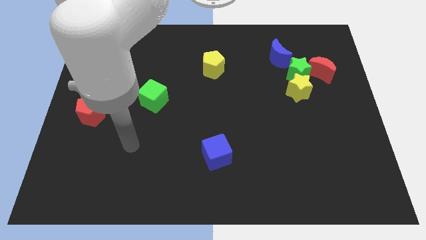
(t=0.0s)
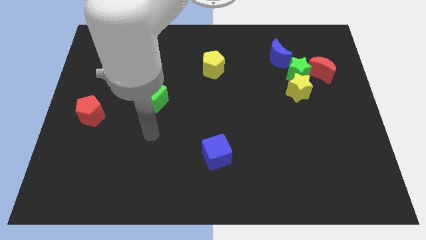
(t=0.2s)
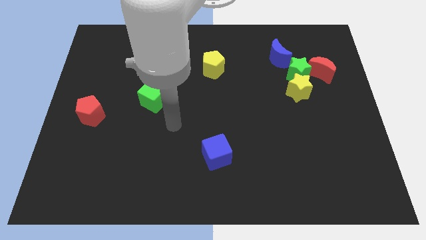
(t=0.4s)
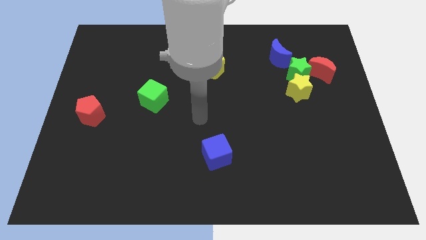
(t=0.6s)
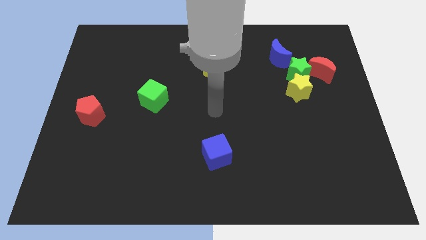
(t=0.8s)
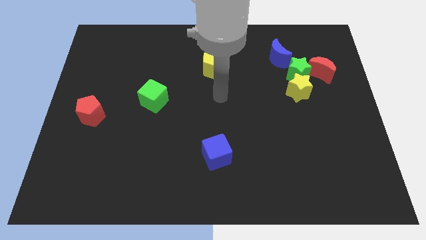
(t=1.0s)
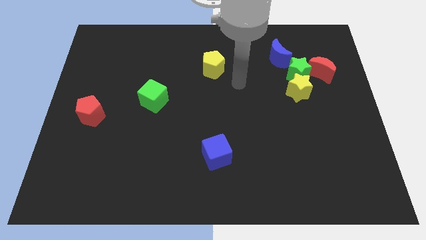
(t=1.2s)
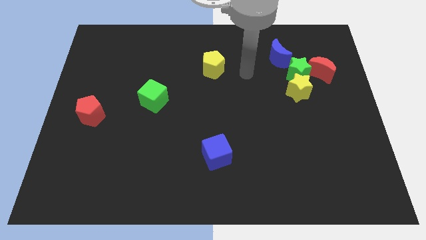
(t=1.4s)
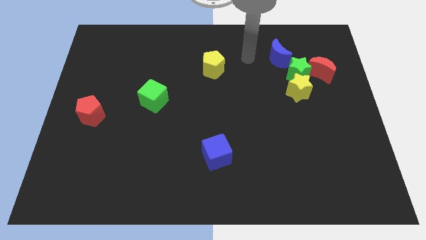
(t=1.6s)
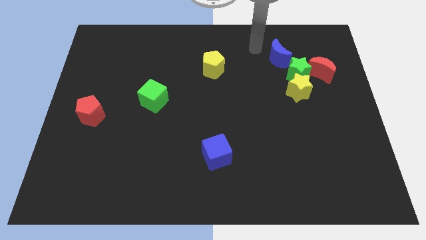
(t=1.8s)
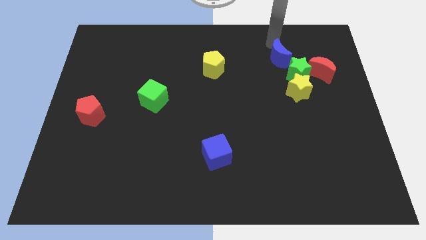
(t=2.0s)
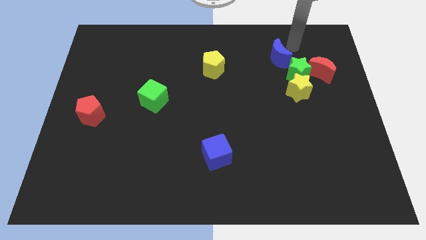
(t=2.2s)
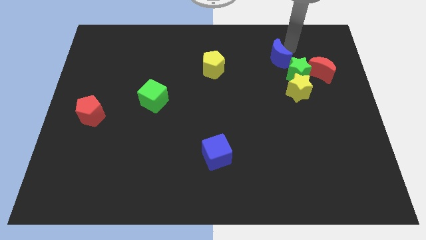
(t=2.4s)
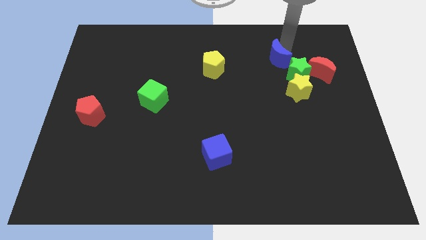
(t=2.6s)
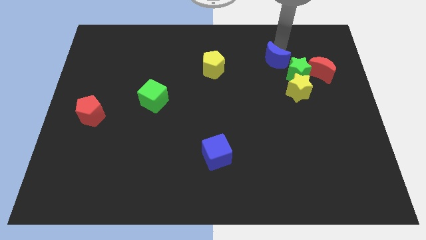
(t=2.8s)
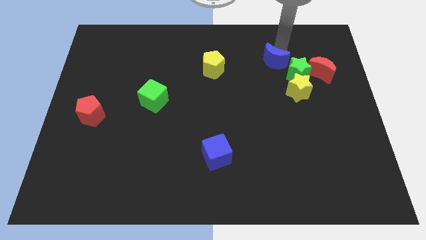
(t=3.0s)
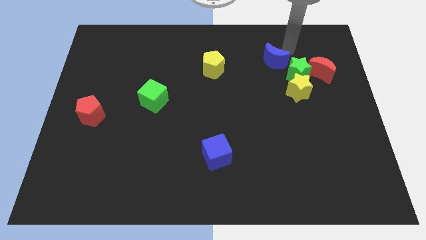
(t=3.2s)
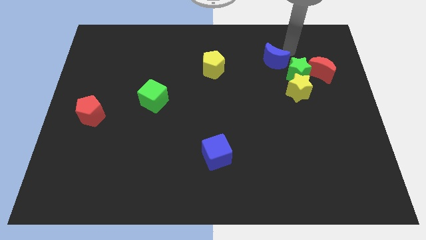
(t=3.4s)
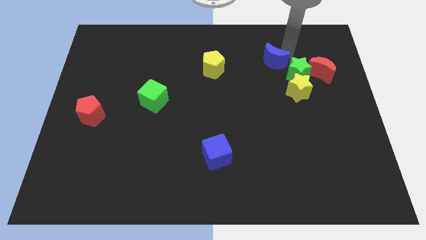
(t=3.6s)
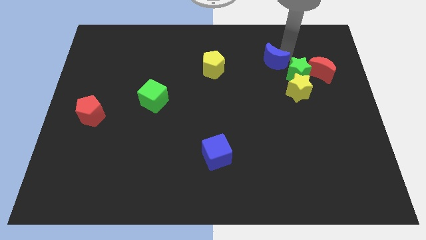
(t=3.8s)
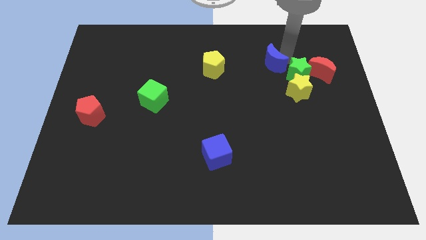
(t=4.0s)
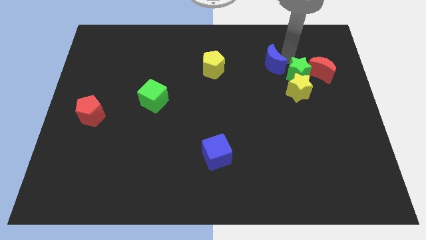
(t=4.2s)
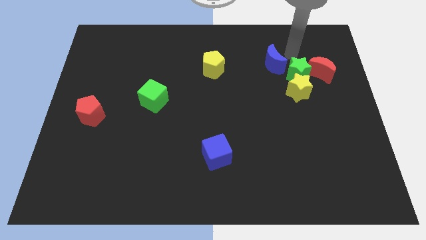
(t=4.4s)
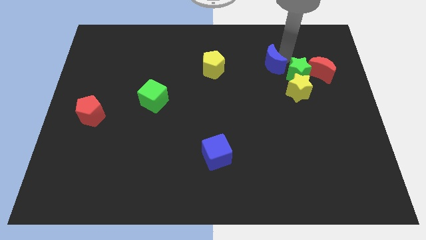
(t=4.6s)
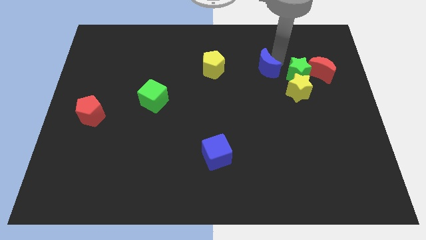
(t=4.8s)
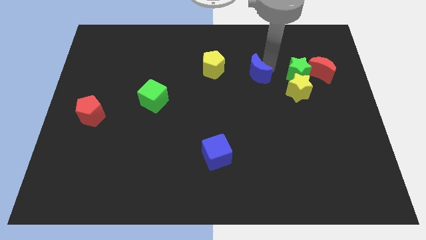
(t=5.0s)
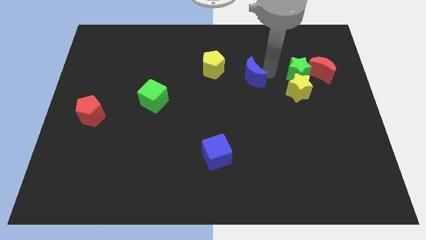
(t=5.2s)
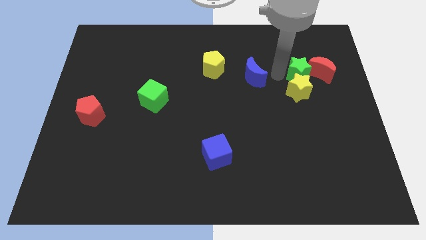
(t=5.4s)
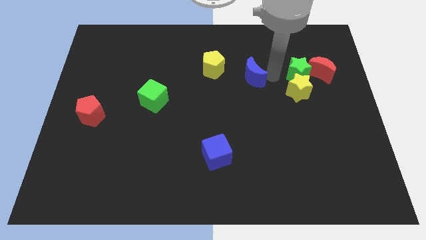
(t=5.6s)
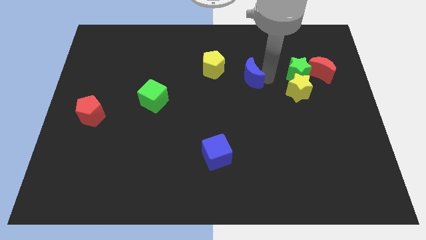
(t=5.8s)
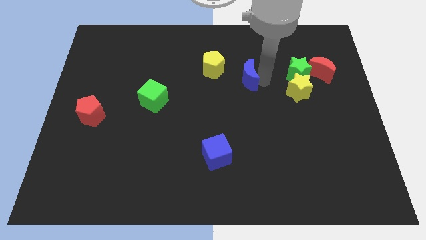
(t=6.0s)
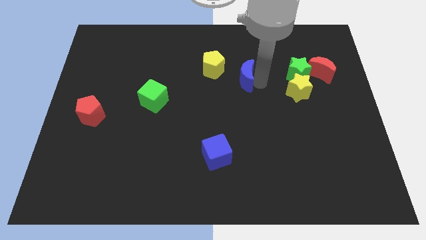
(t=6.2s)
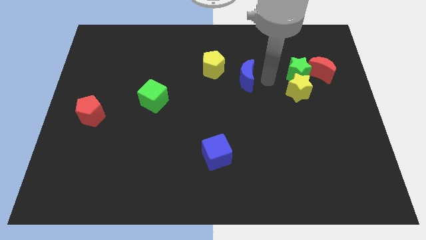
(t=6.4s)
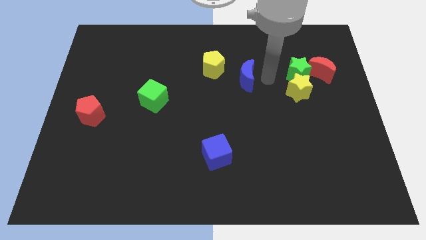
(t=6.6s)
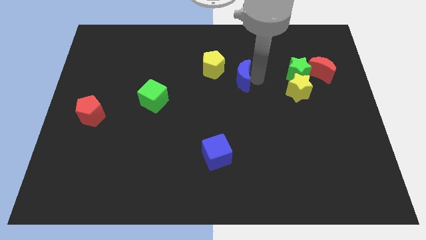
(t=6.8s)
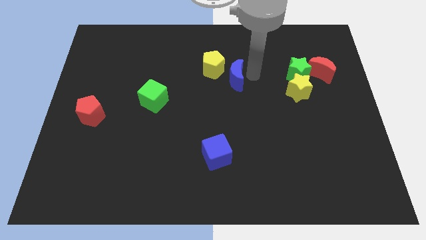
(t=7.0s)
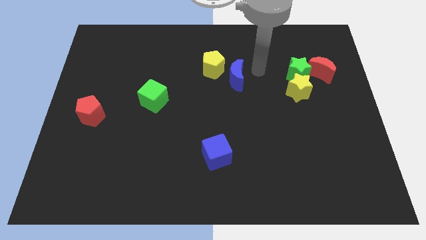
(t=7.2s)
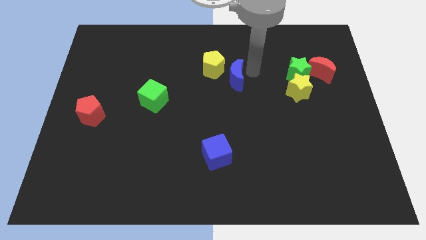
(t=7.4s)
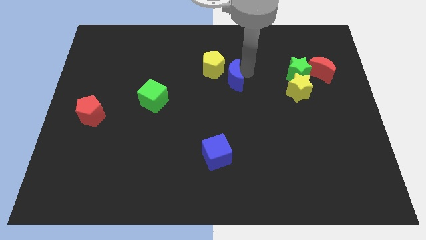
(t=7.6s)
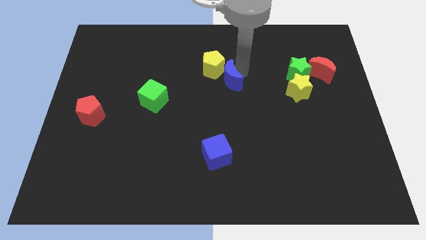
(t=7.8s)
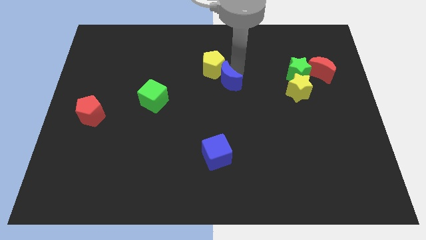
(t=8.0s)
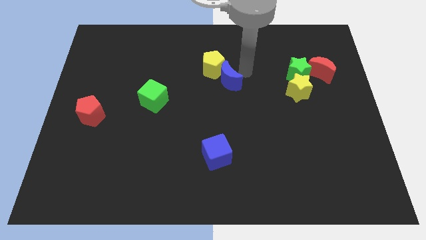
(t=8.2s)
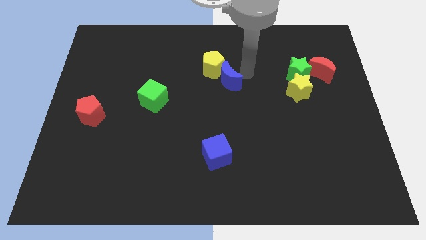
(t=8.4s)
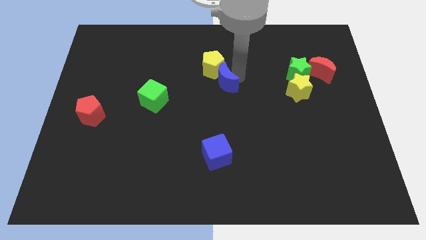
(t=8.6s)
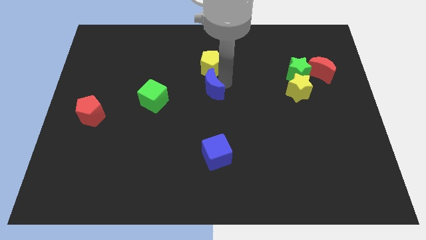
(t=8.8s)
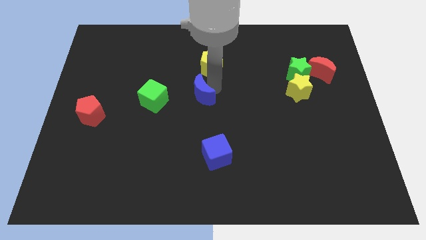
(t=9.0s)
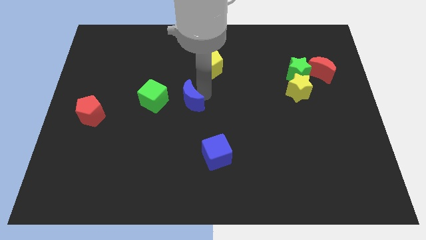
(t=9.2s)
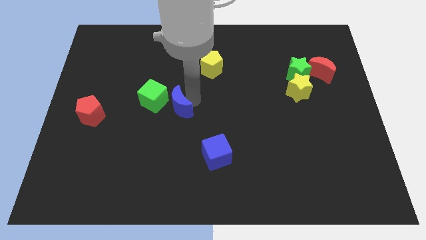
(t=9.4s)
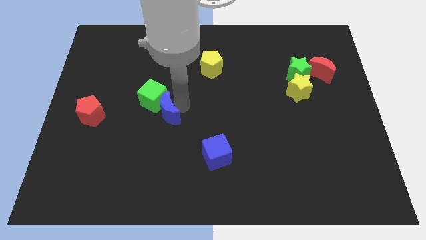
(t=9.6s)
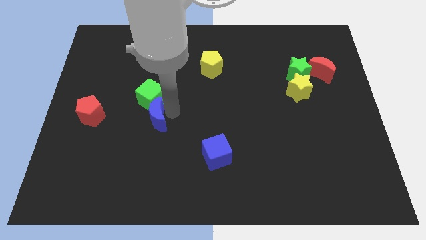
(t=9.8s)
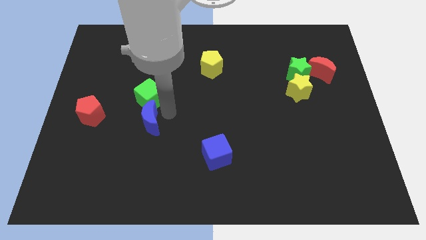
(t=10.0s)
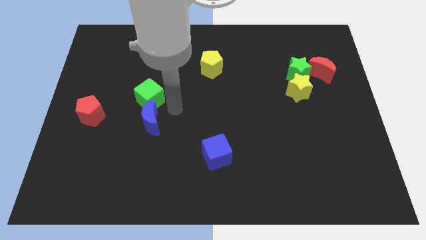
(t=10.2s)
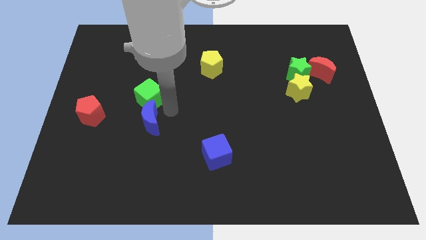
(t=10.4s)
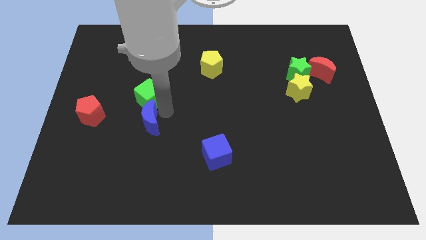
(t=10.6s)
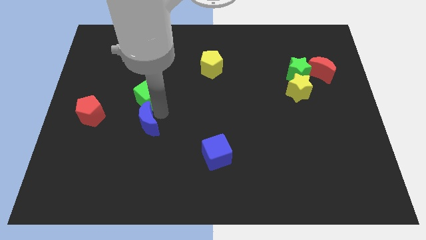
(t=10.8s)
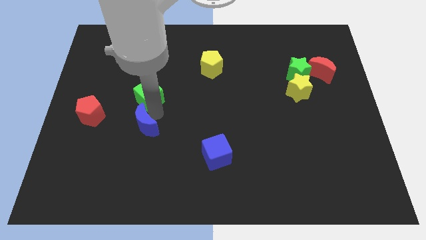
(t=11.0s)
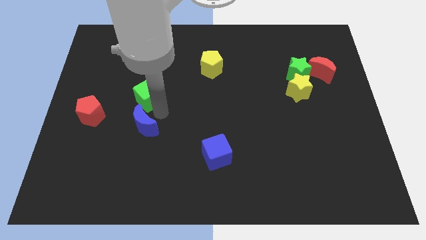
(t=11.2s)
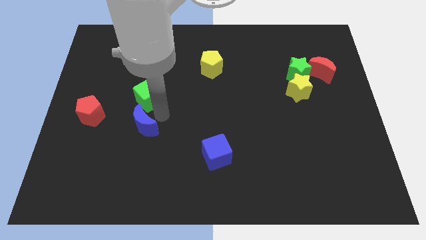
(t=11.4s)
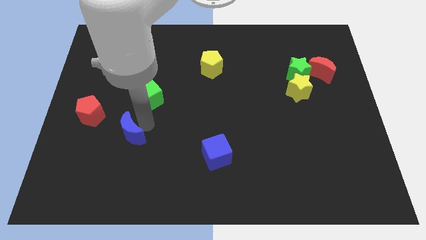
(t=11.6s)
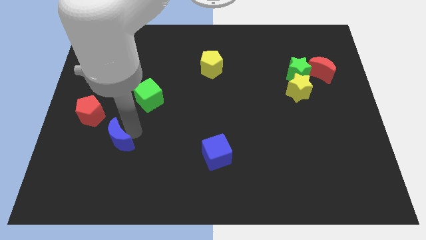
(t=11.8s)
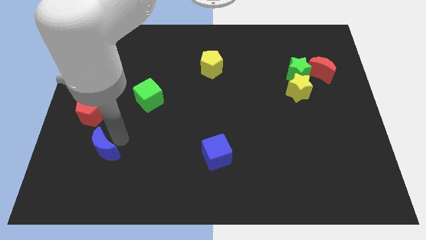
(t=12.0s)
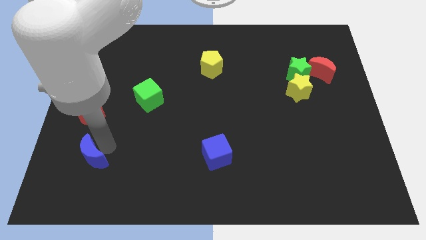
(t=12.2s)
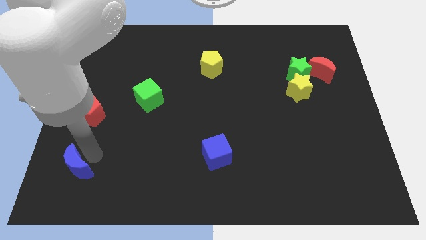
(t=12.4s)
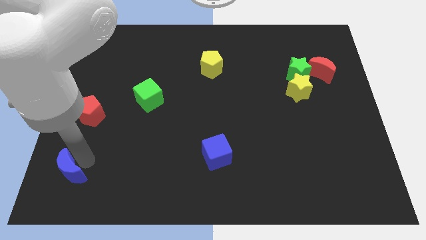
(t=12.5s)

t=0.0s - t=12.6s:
push the blue moon to the bottom left corner

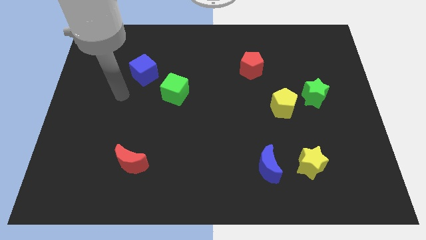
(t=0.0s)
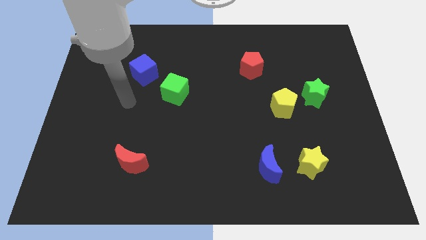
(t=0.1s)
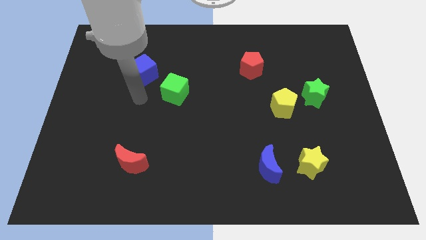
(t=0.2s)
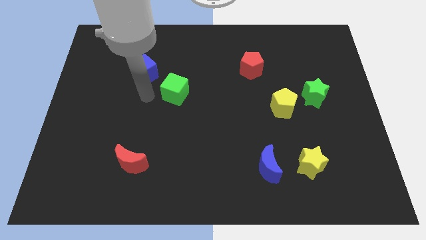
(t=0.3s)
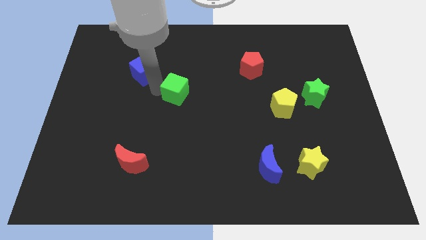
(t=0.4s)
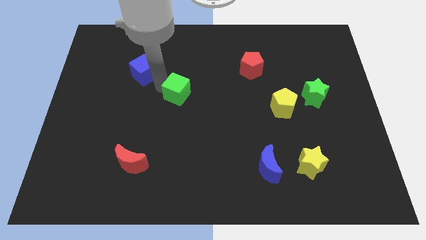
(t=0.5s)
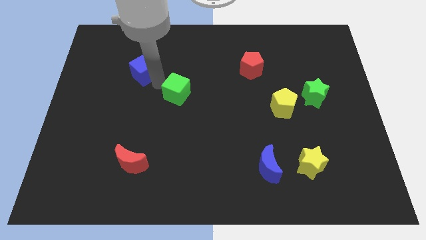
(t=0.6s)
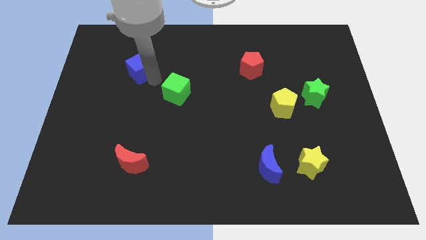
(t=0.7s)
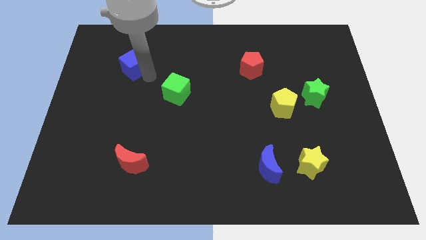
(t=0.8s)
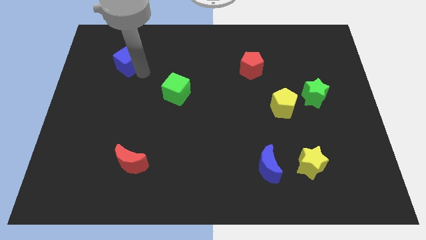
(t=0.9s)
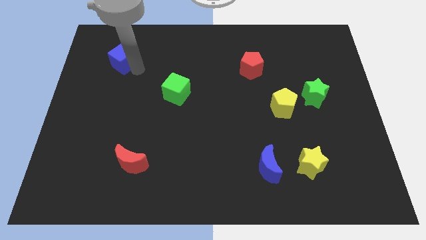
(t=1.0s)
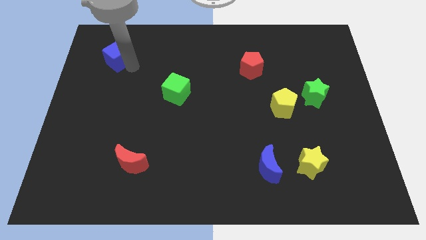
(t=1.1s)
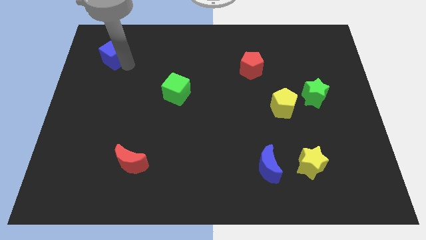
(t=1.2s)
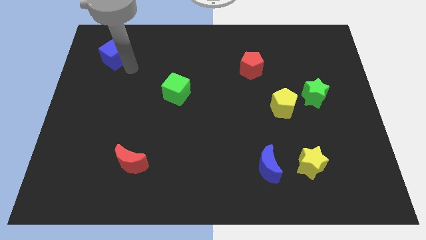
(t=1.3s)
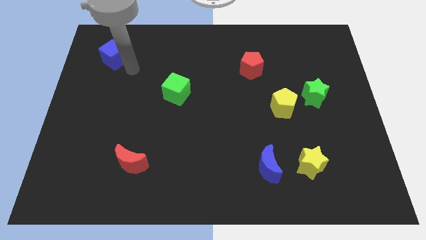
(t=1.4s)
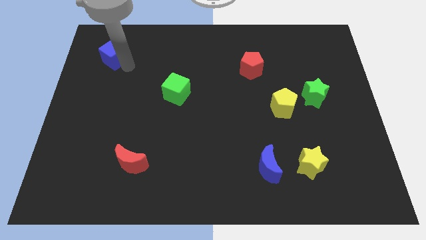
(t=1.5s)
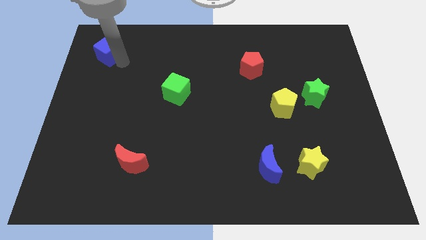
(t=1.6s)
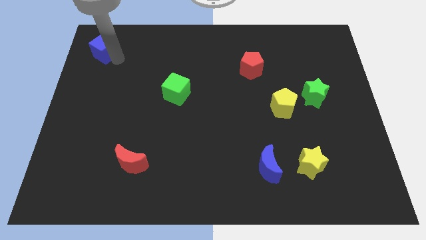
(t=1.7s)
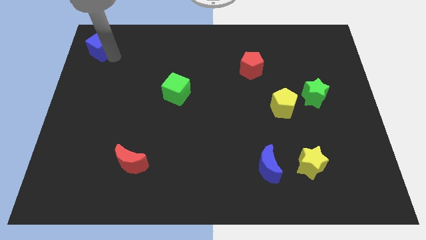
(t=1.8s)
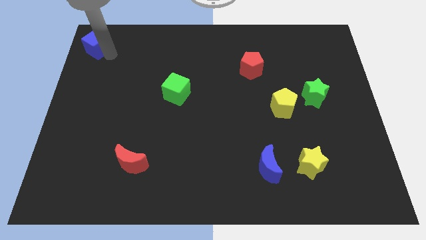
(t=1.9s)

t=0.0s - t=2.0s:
slide the blue cube to the top left corner
